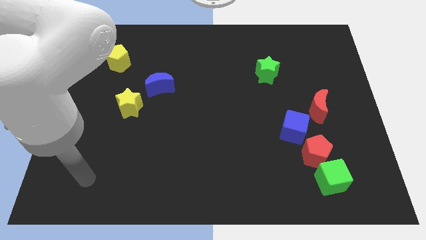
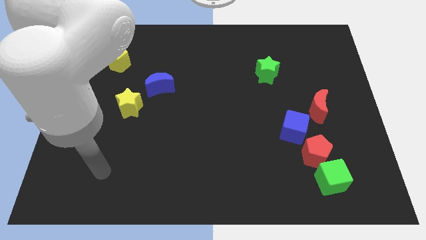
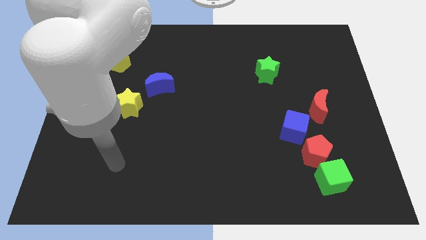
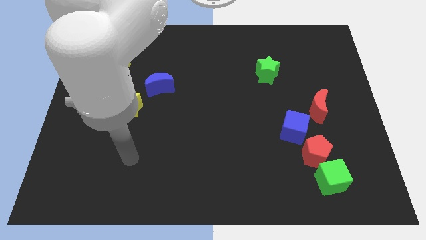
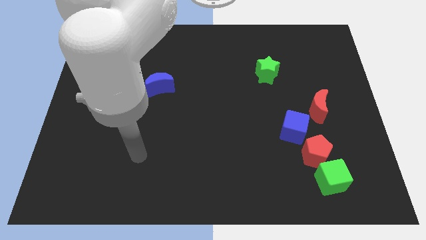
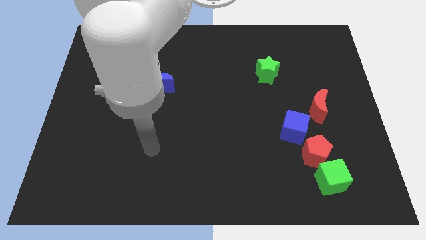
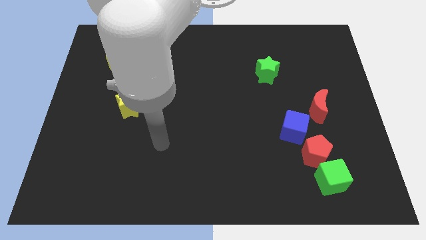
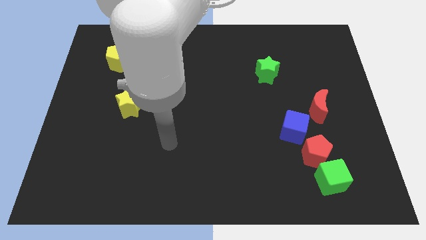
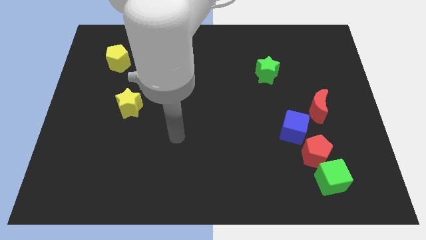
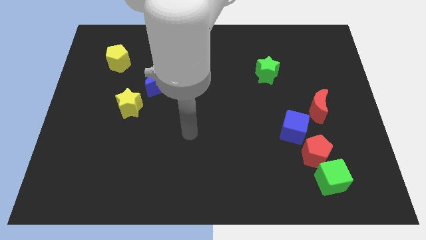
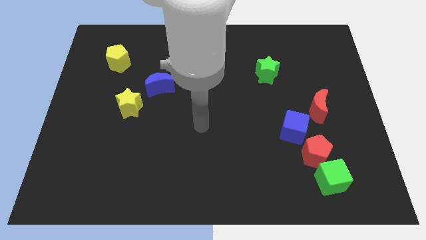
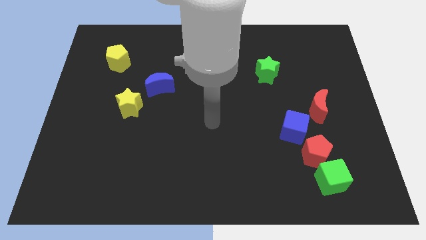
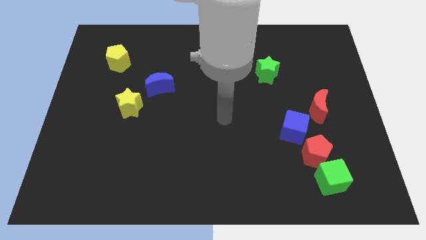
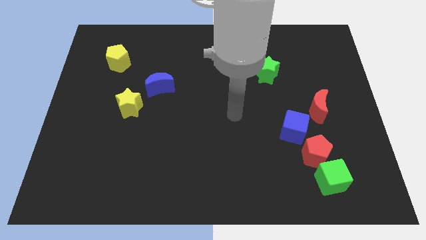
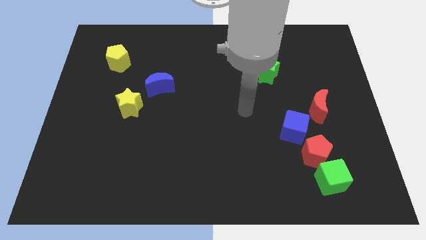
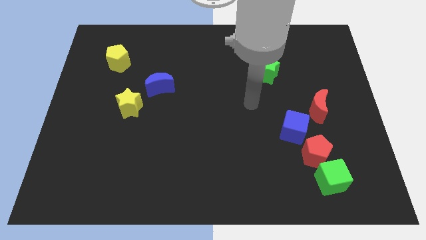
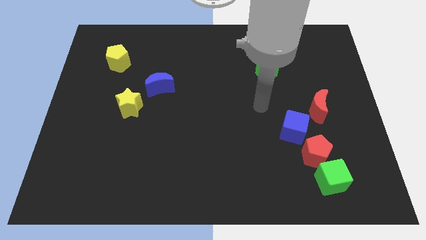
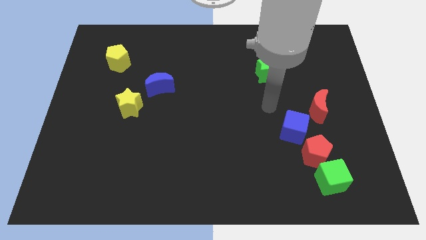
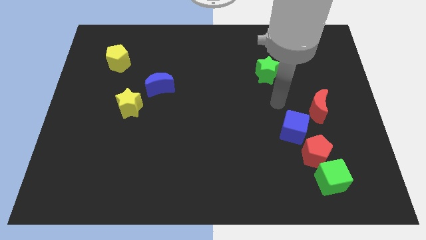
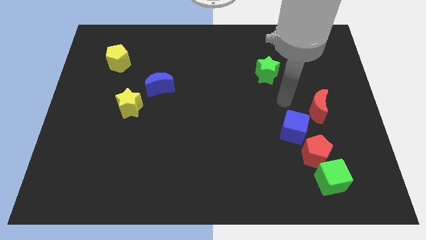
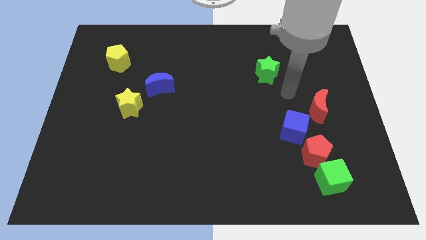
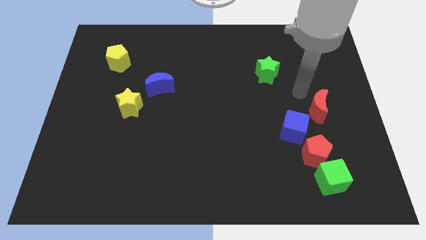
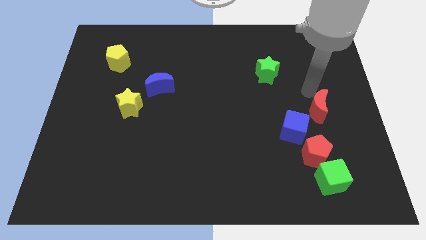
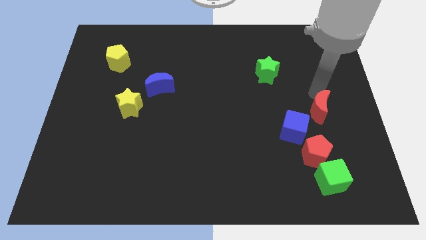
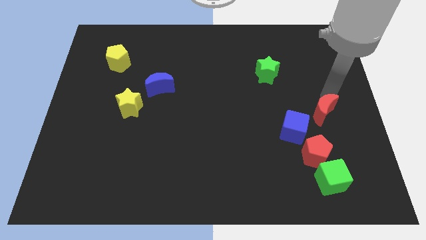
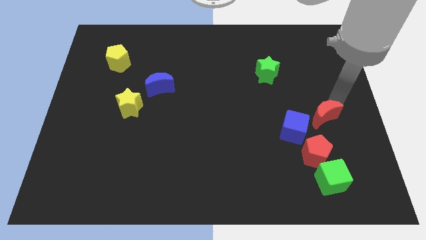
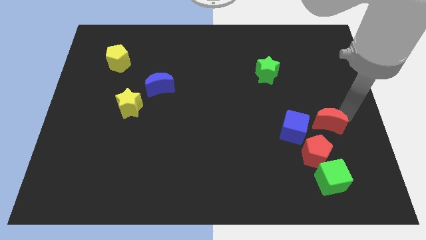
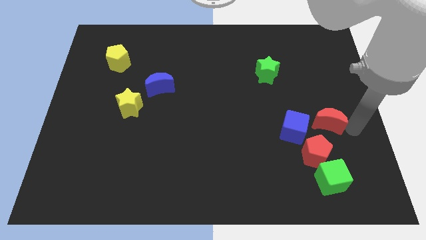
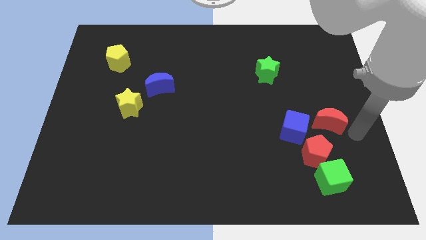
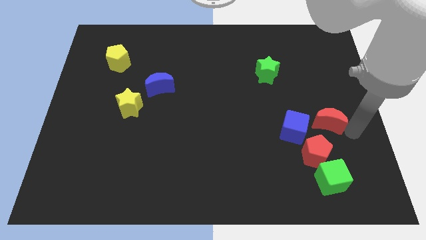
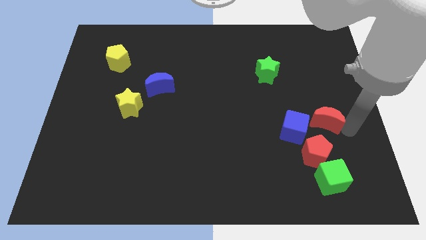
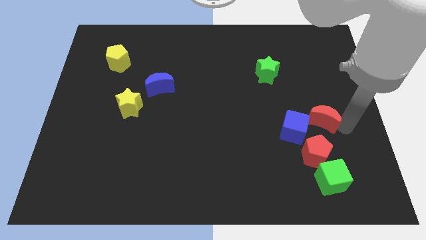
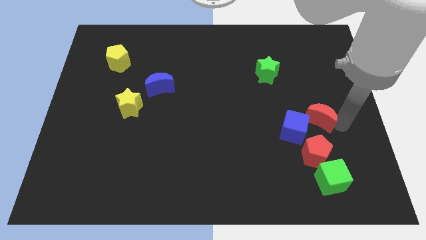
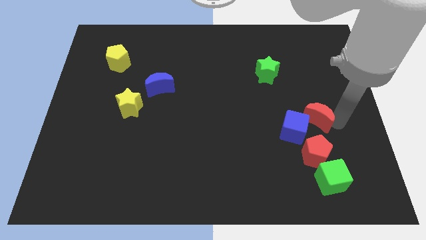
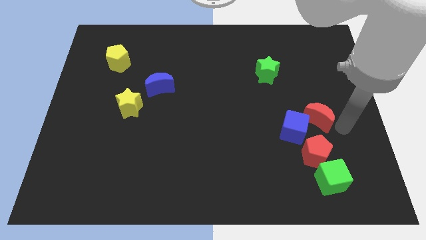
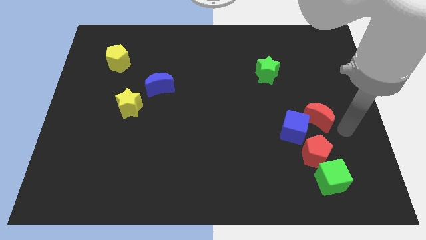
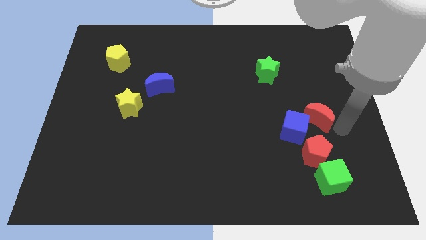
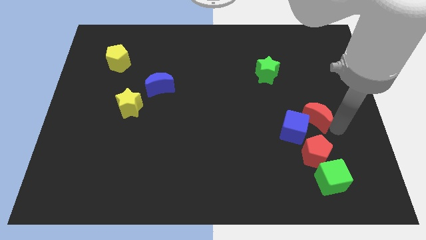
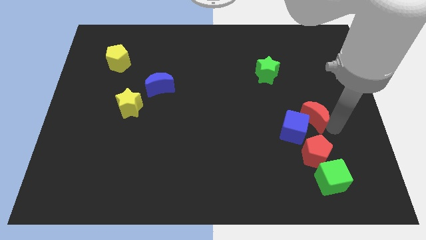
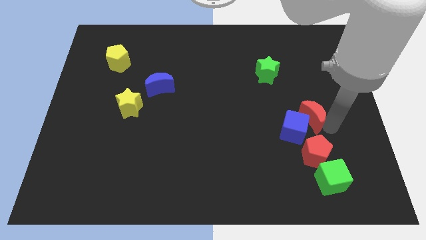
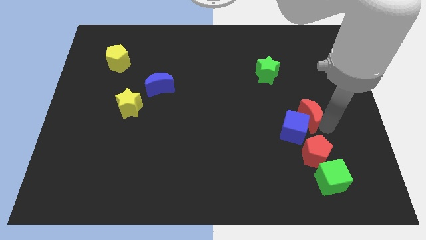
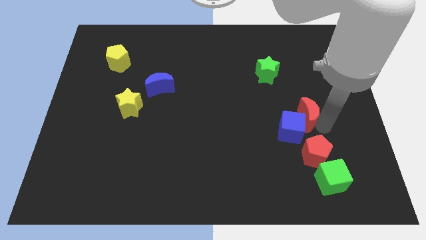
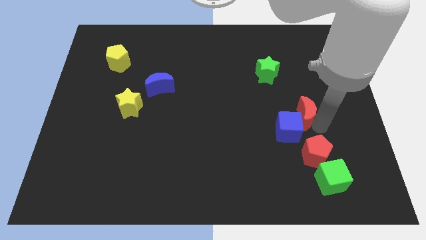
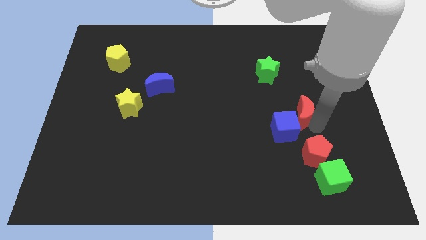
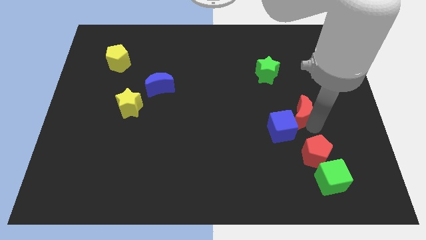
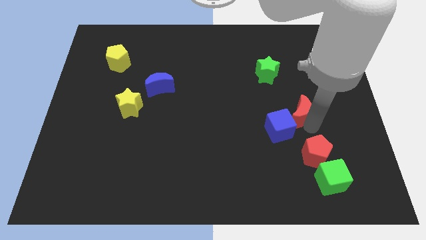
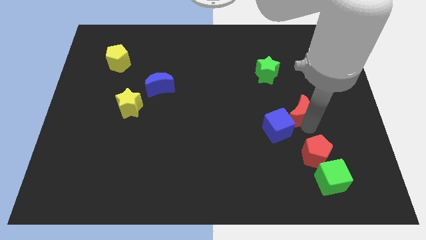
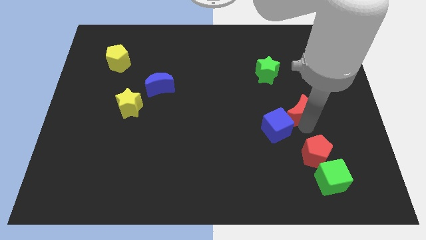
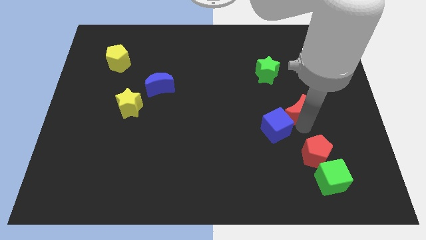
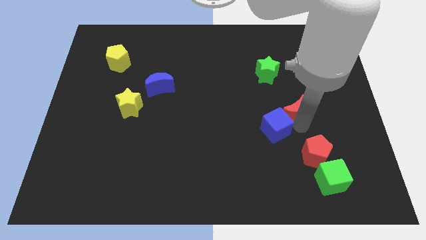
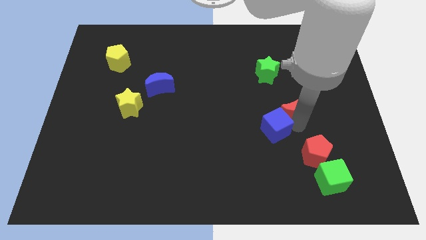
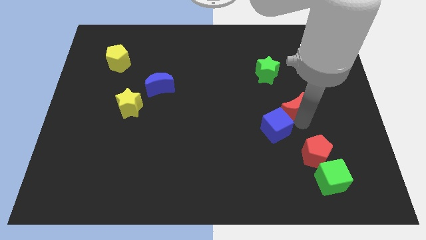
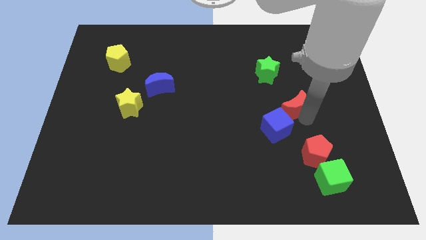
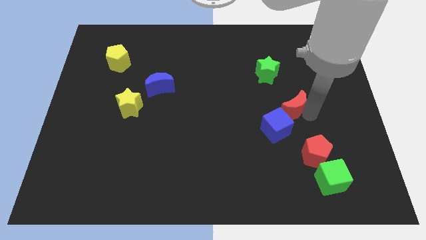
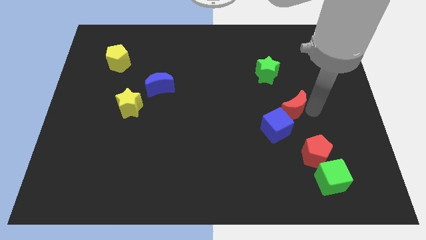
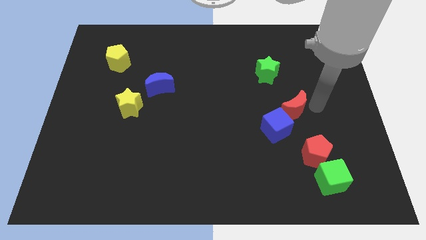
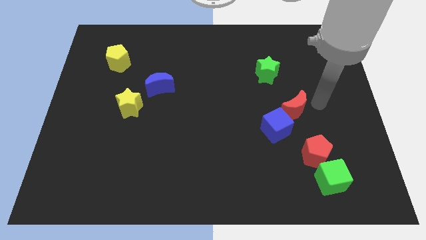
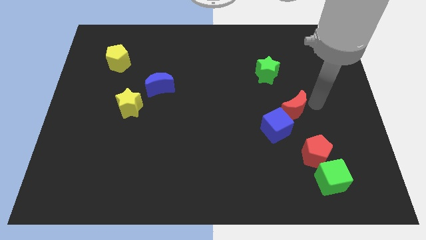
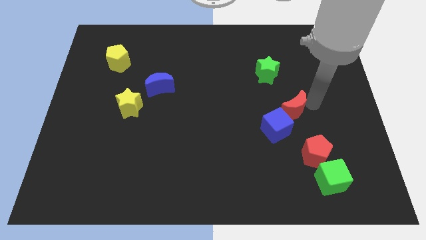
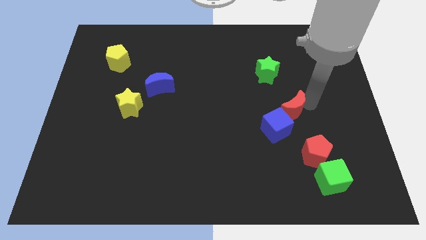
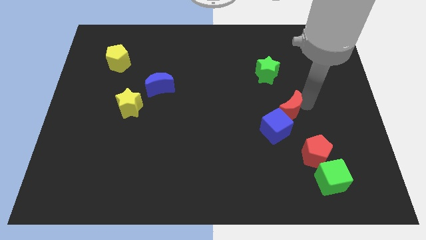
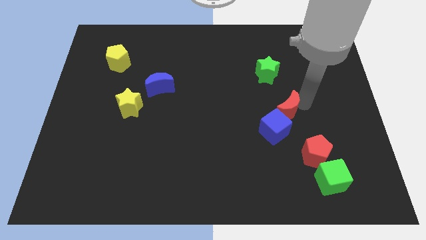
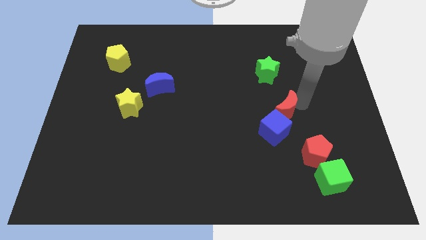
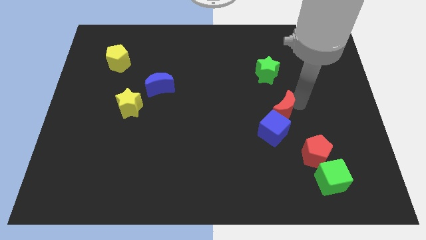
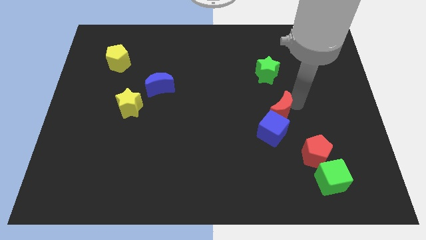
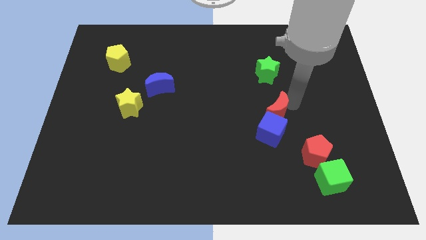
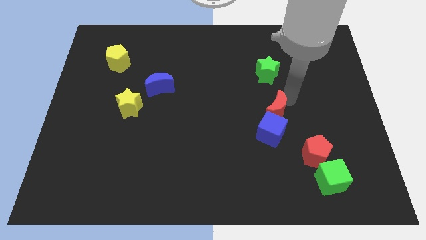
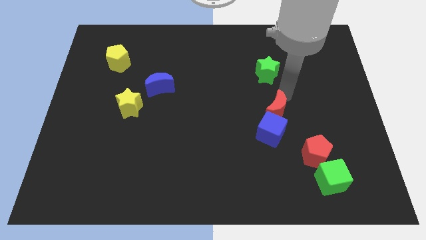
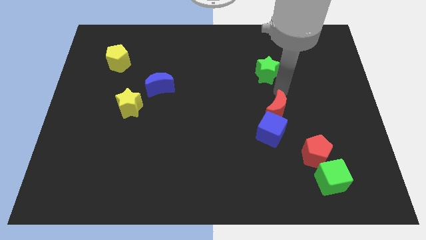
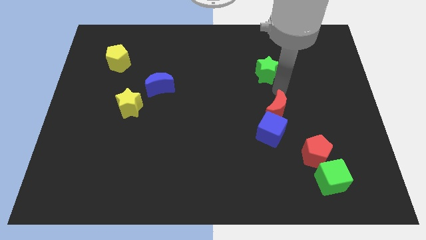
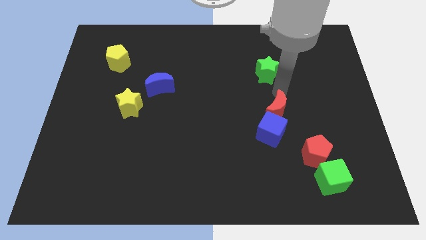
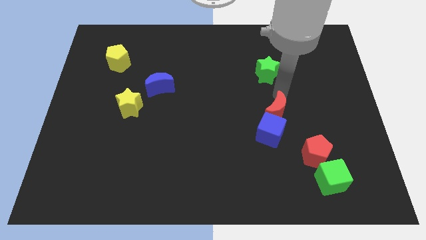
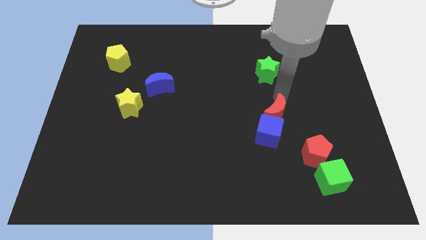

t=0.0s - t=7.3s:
move the red moon downwards and left diagonally slightly

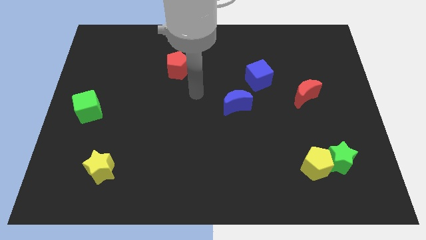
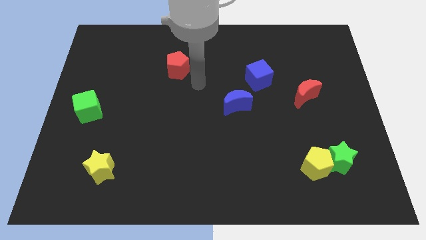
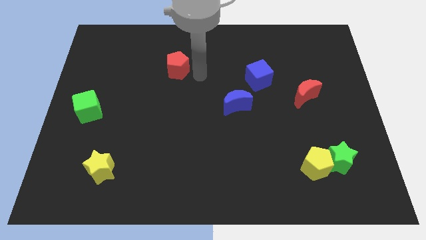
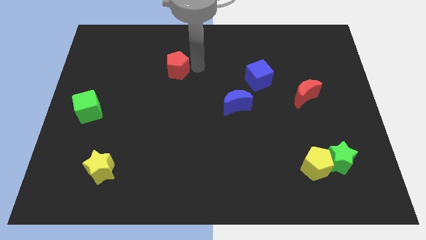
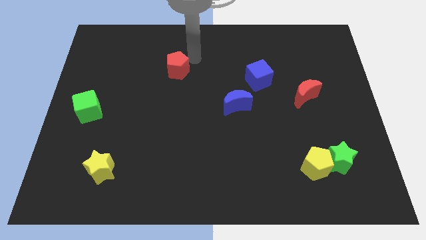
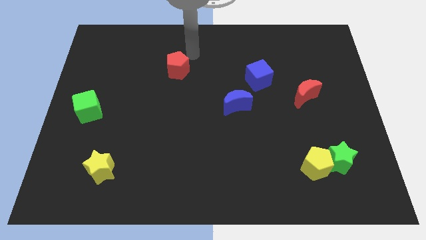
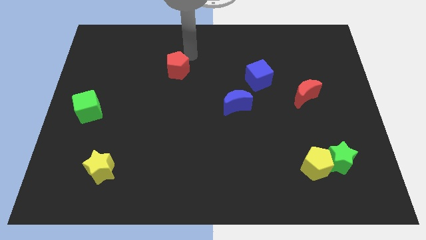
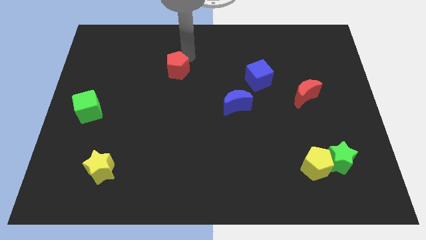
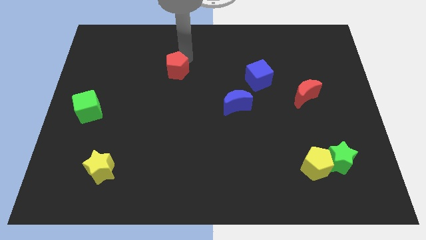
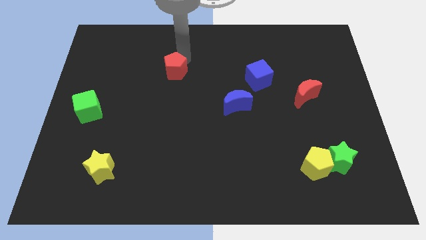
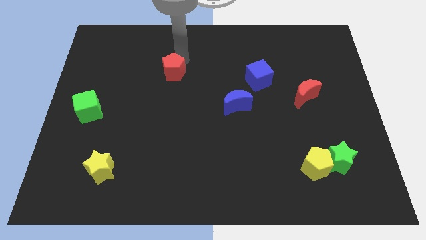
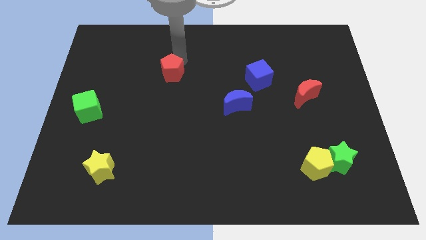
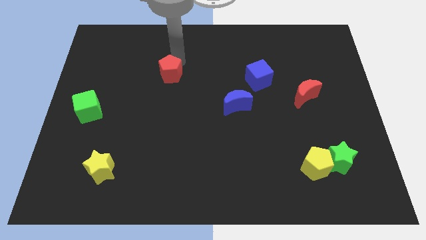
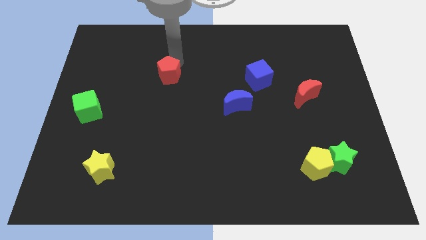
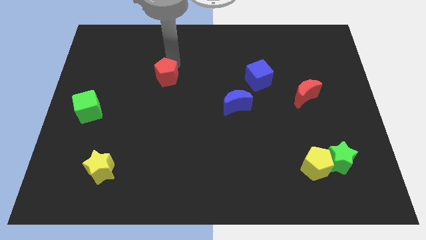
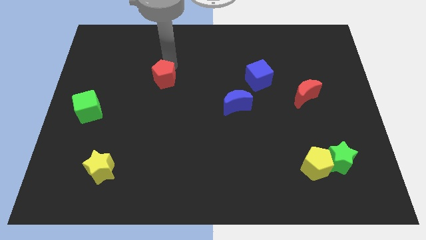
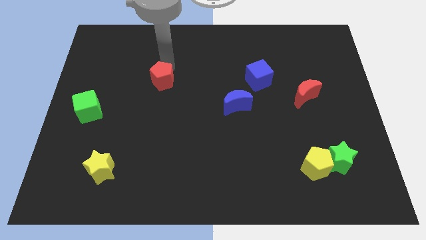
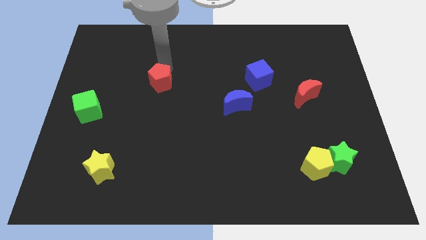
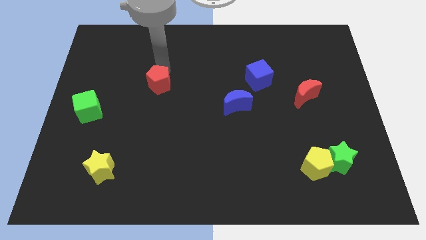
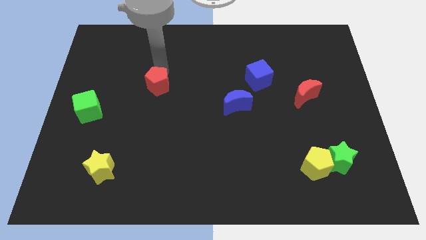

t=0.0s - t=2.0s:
push the red pentagon down and to the left diagonally a little
